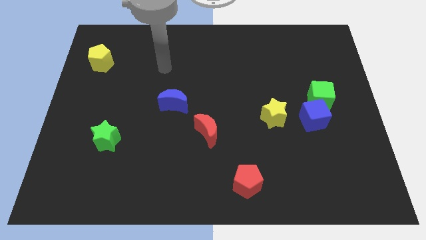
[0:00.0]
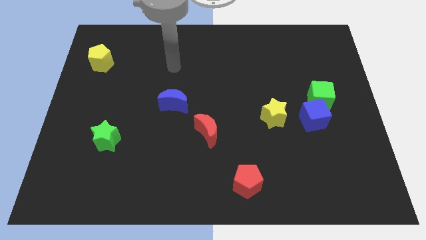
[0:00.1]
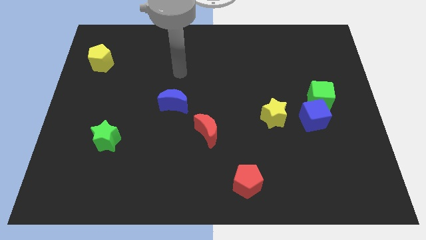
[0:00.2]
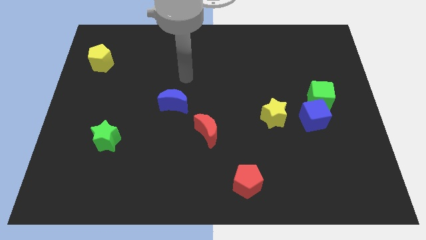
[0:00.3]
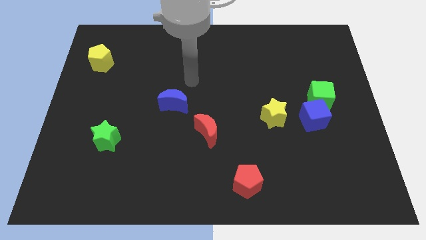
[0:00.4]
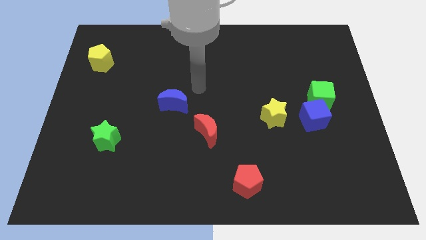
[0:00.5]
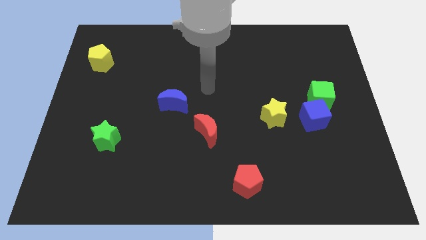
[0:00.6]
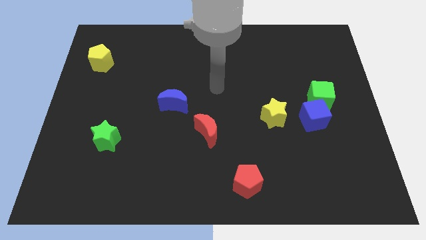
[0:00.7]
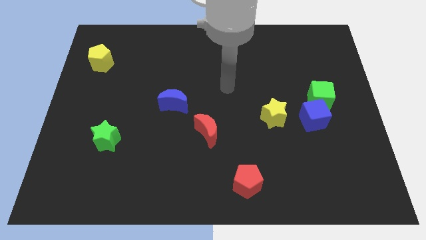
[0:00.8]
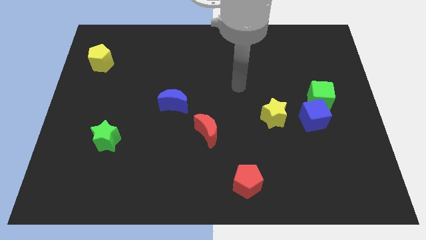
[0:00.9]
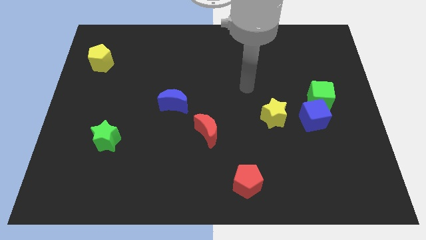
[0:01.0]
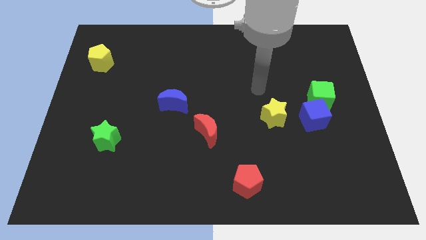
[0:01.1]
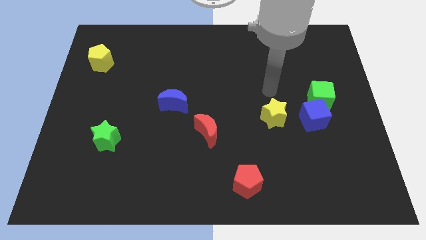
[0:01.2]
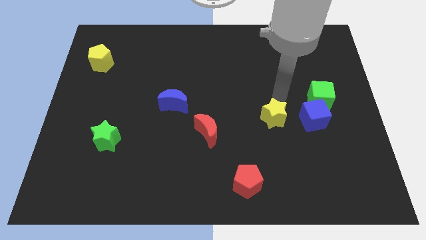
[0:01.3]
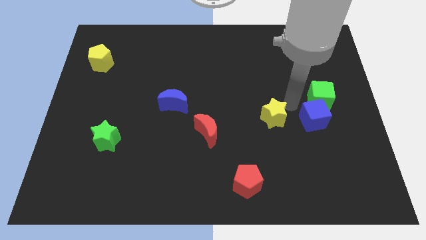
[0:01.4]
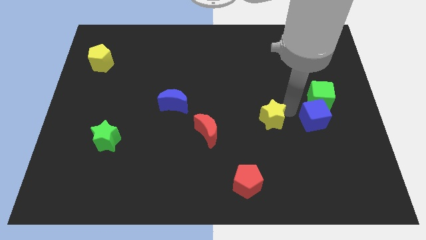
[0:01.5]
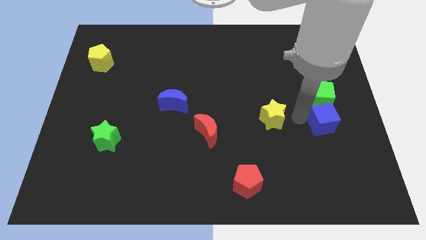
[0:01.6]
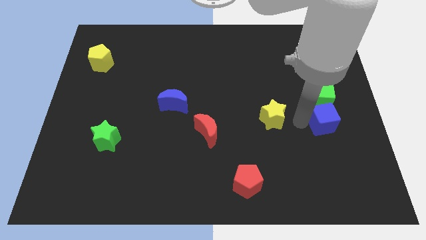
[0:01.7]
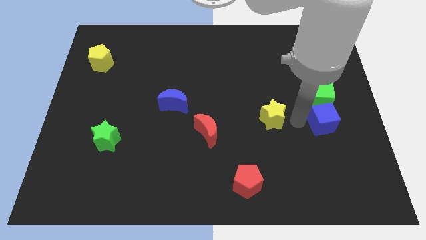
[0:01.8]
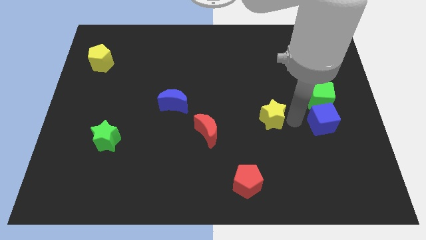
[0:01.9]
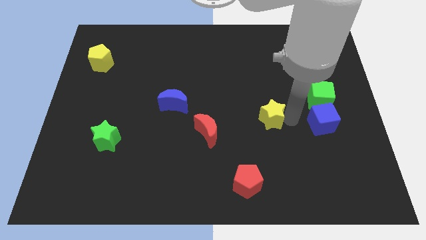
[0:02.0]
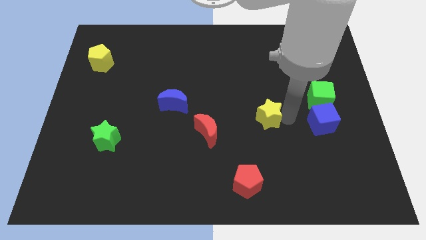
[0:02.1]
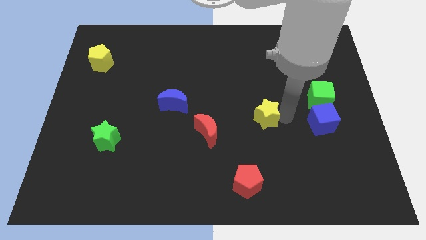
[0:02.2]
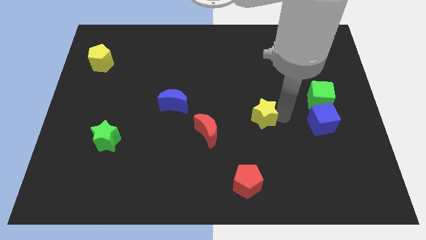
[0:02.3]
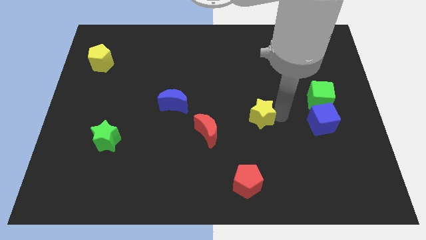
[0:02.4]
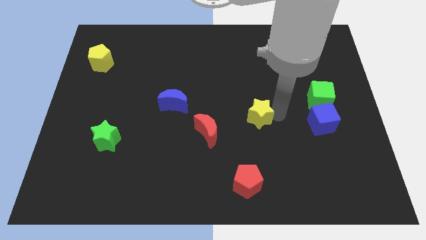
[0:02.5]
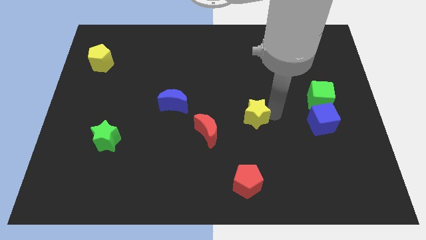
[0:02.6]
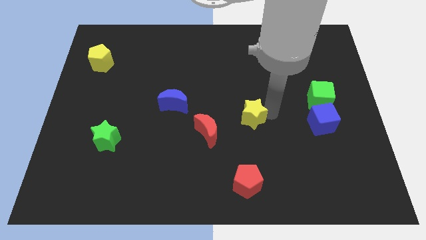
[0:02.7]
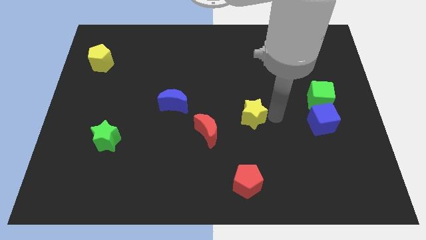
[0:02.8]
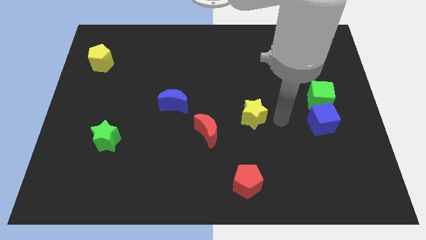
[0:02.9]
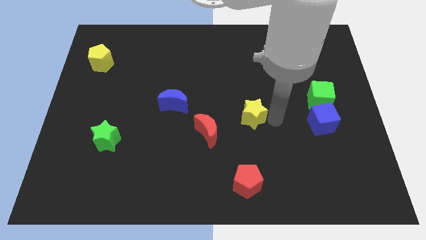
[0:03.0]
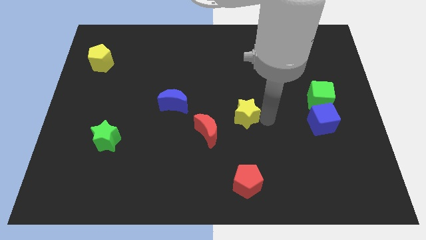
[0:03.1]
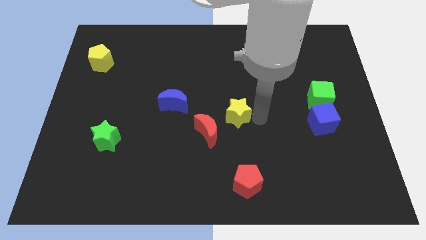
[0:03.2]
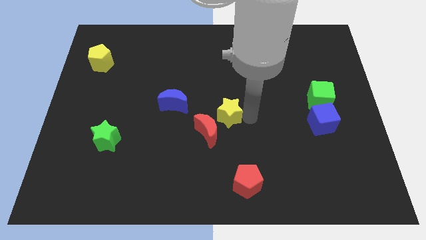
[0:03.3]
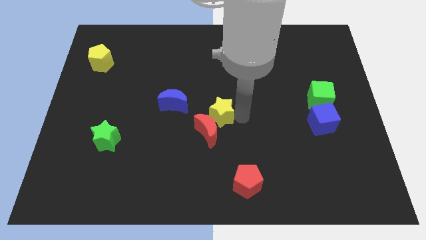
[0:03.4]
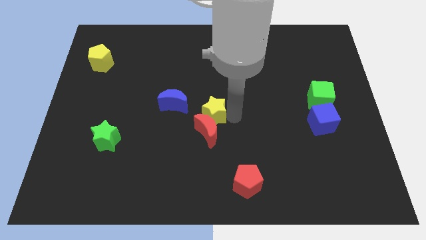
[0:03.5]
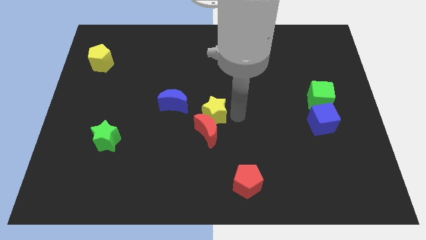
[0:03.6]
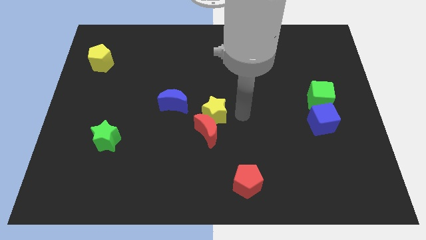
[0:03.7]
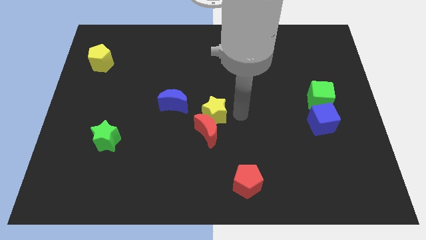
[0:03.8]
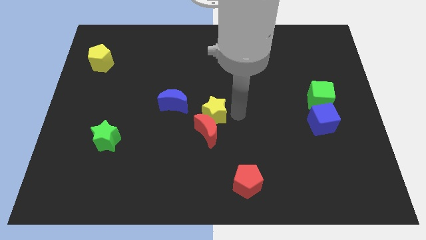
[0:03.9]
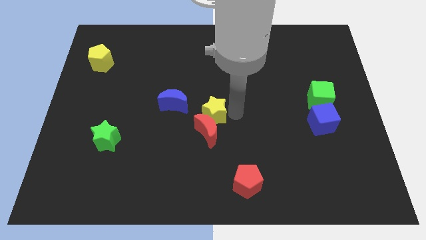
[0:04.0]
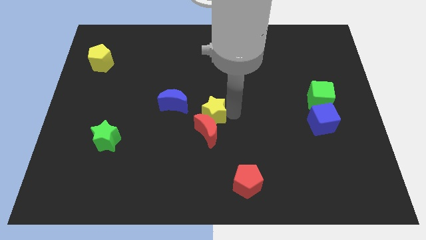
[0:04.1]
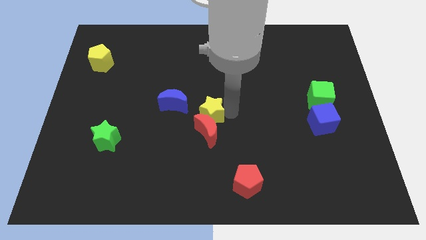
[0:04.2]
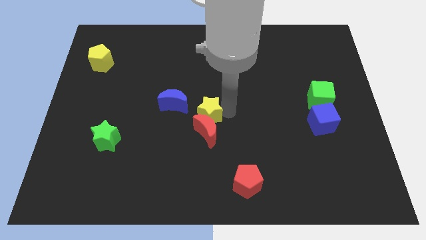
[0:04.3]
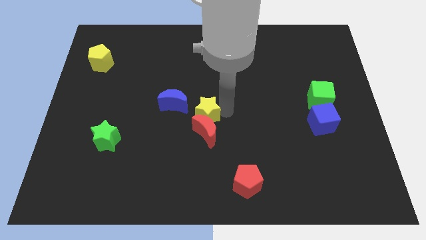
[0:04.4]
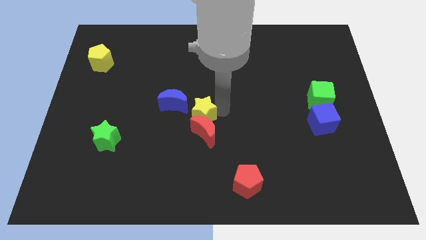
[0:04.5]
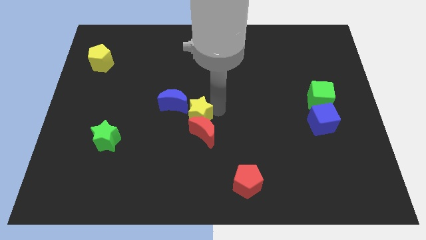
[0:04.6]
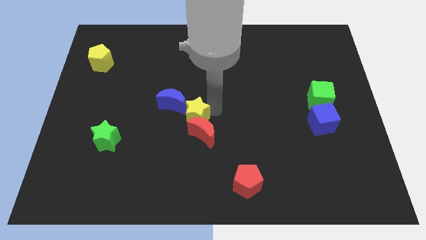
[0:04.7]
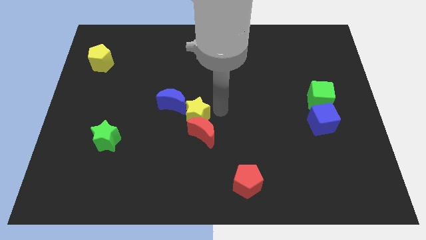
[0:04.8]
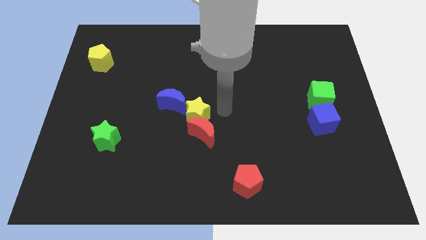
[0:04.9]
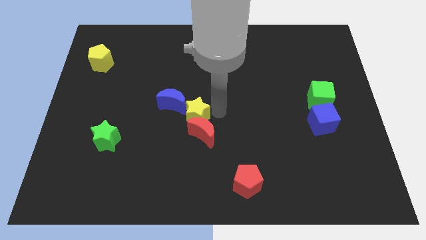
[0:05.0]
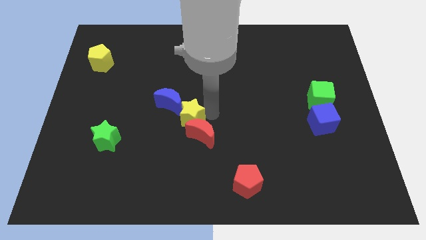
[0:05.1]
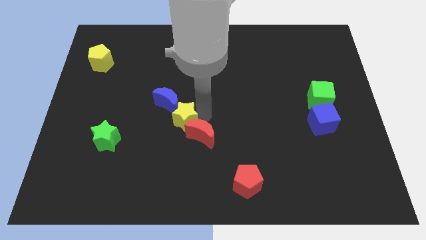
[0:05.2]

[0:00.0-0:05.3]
move the yellow star to the left

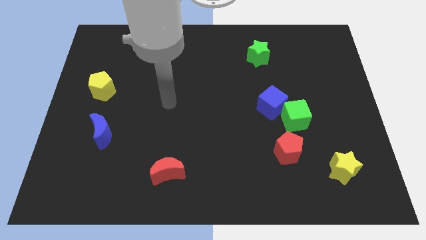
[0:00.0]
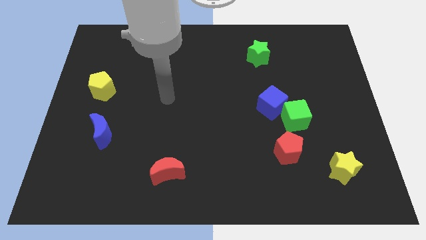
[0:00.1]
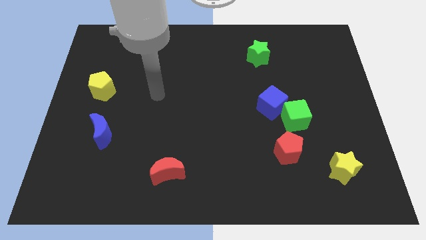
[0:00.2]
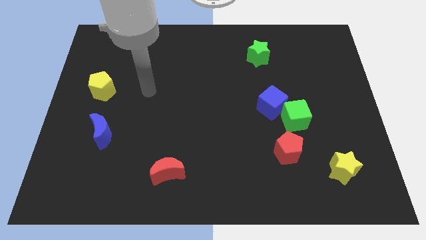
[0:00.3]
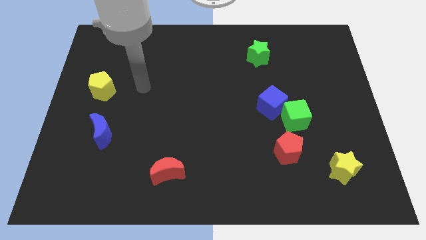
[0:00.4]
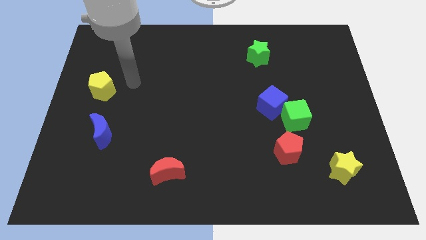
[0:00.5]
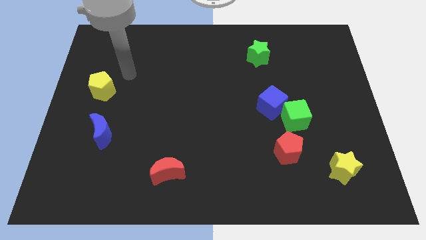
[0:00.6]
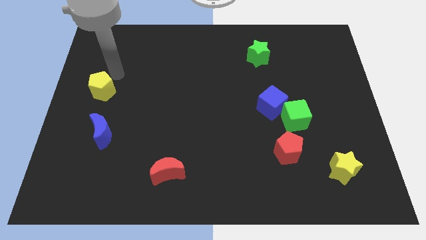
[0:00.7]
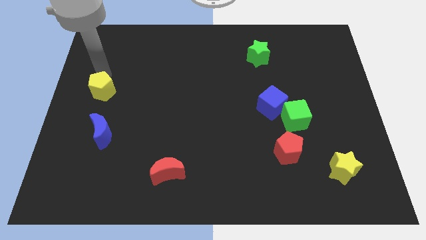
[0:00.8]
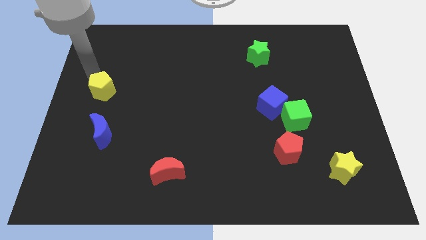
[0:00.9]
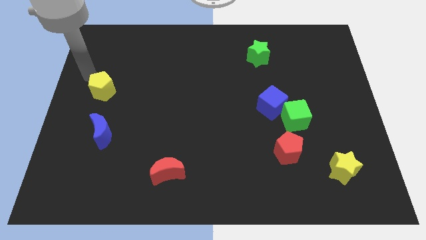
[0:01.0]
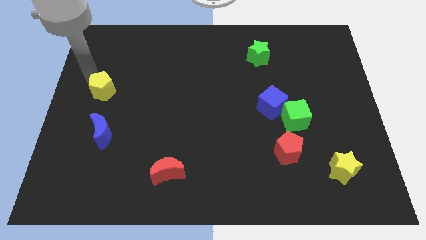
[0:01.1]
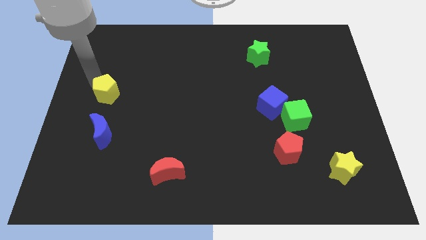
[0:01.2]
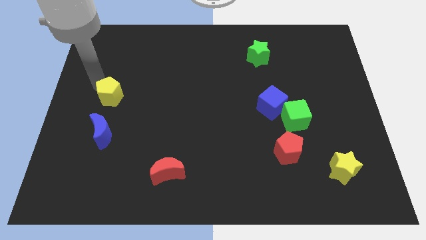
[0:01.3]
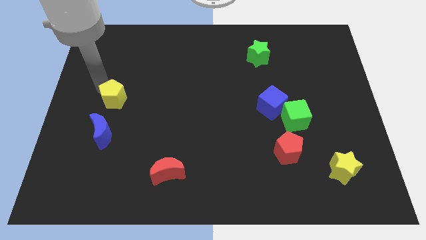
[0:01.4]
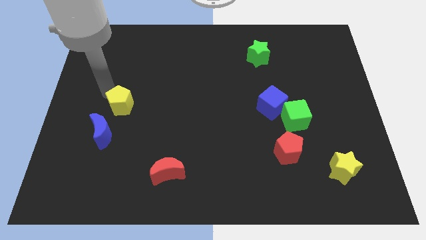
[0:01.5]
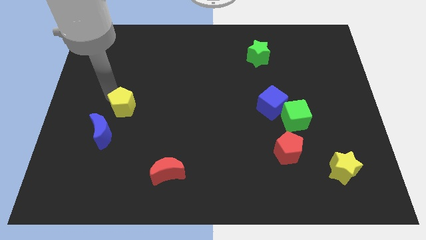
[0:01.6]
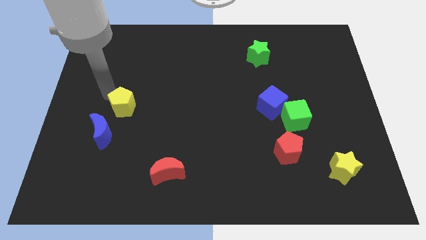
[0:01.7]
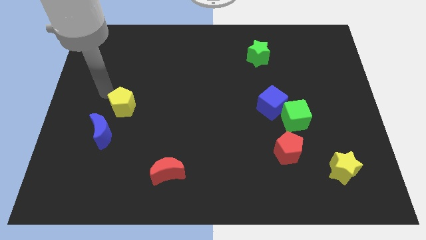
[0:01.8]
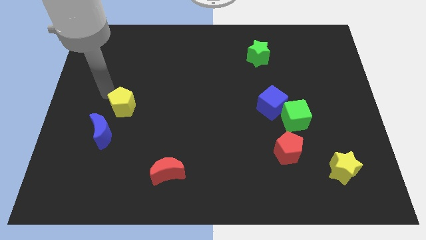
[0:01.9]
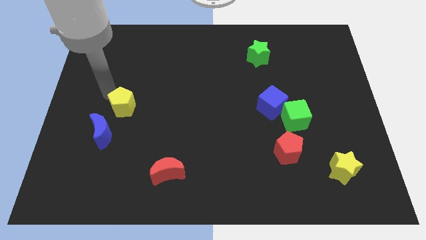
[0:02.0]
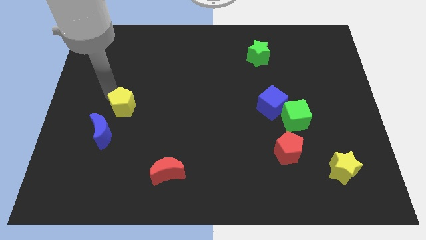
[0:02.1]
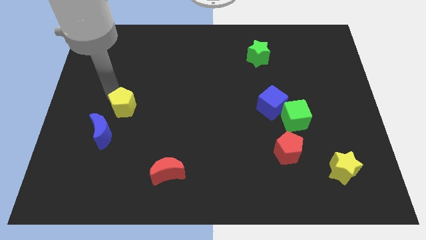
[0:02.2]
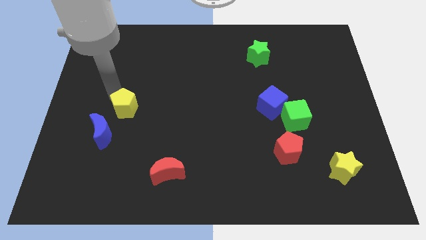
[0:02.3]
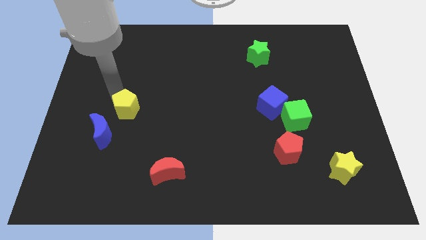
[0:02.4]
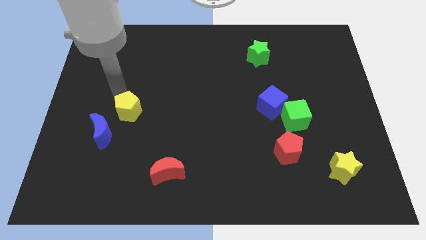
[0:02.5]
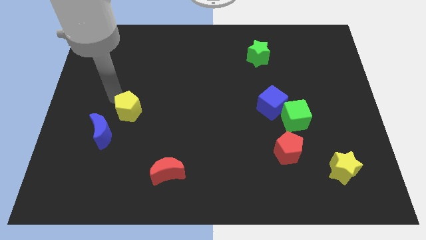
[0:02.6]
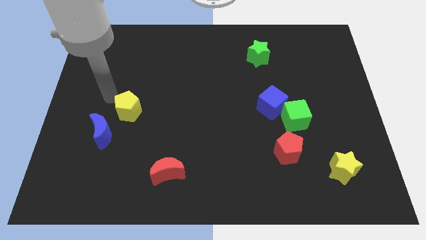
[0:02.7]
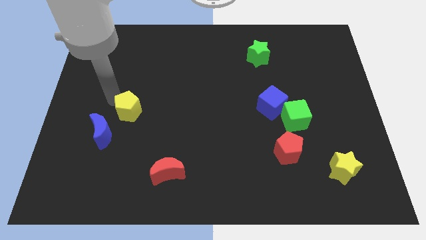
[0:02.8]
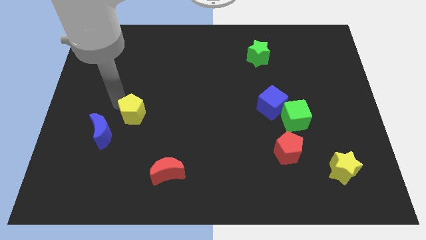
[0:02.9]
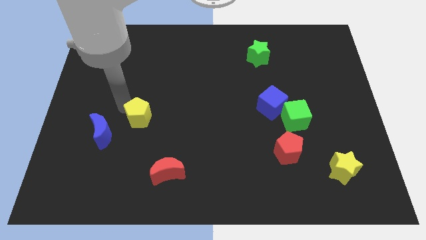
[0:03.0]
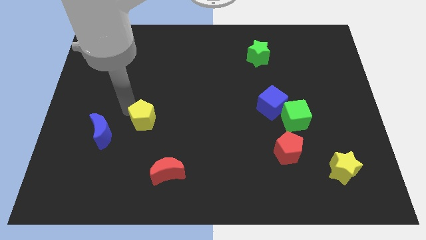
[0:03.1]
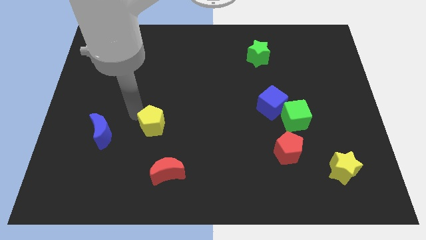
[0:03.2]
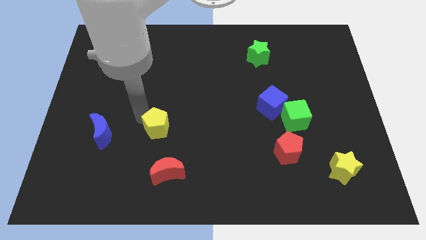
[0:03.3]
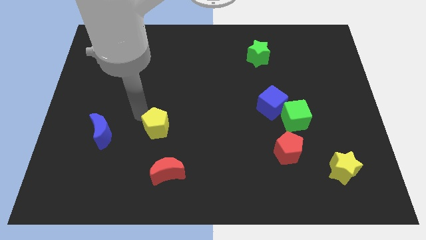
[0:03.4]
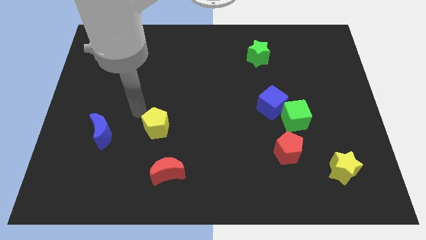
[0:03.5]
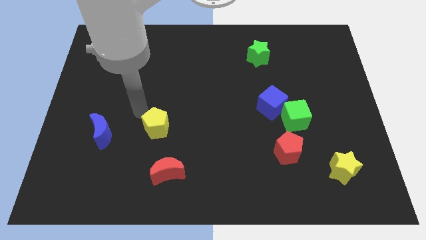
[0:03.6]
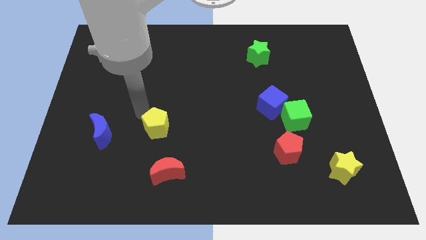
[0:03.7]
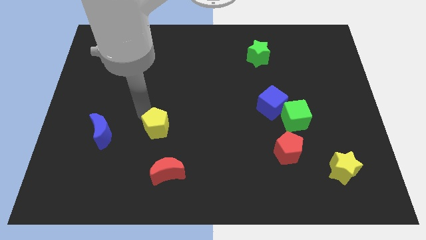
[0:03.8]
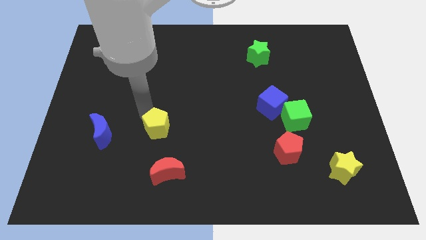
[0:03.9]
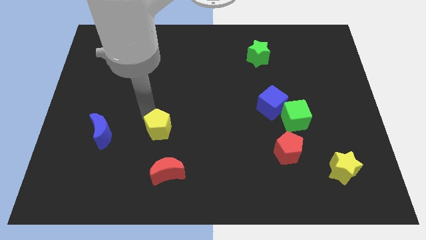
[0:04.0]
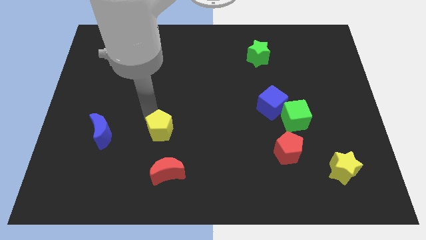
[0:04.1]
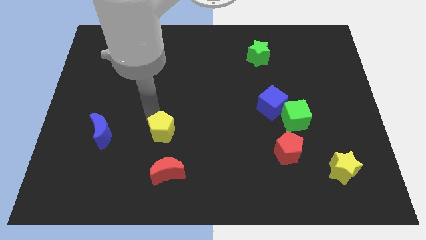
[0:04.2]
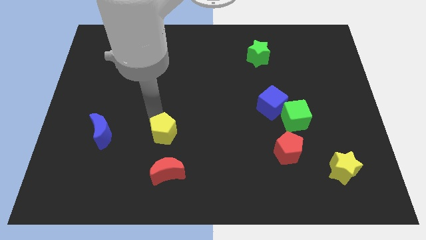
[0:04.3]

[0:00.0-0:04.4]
push the yellow pentagon downwards and right
